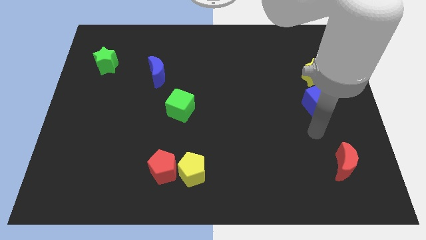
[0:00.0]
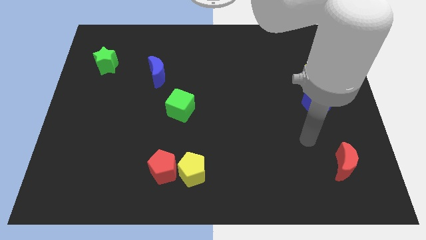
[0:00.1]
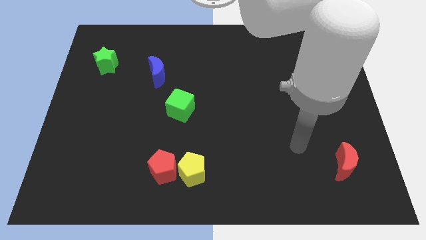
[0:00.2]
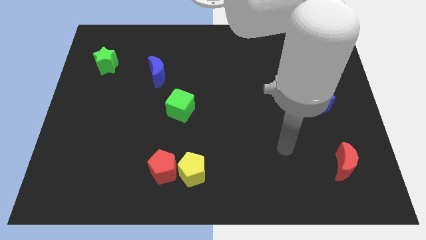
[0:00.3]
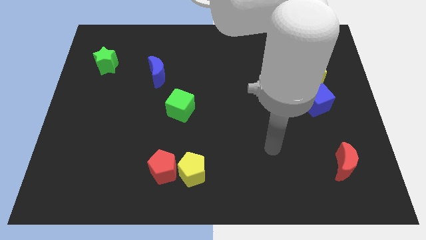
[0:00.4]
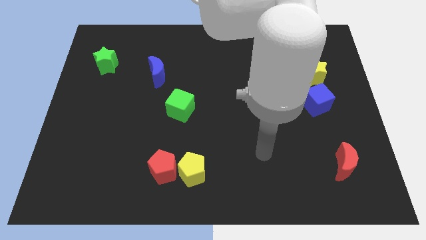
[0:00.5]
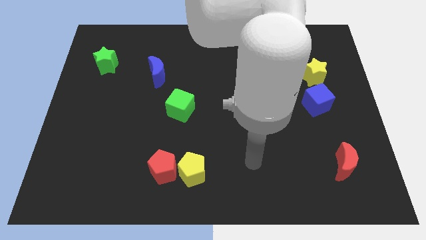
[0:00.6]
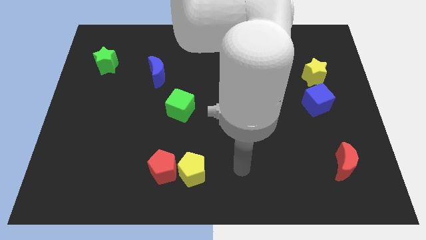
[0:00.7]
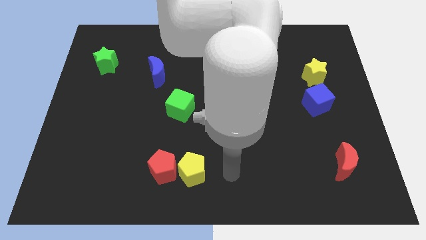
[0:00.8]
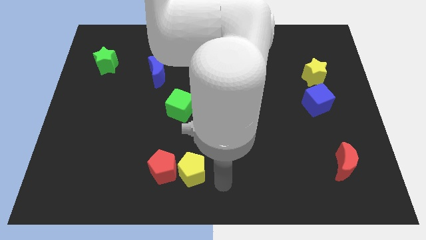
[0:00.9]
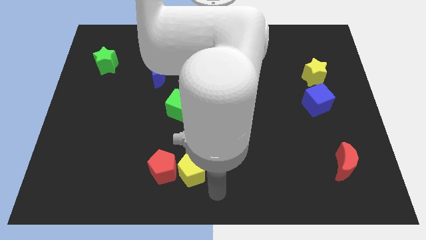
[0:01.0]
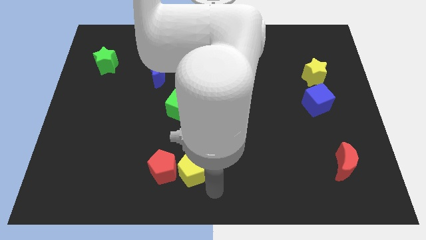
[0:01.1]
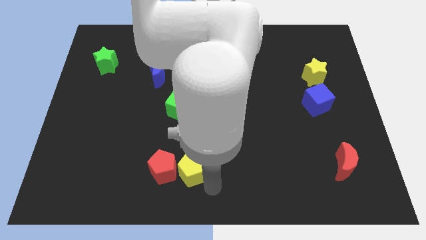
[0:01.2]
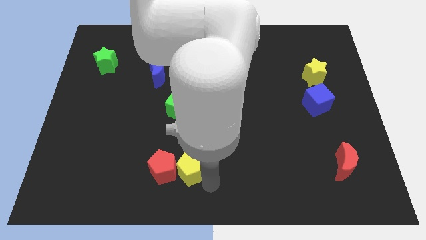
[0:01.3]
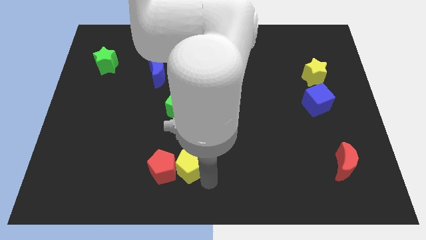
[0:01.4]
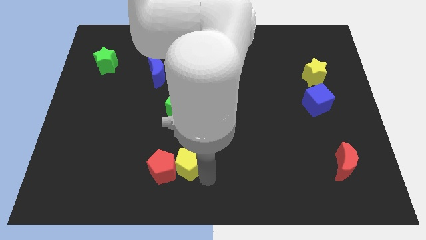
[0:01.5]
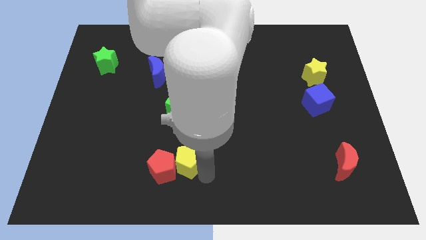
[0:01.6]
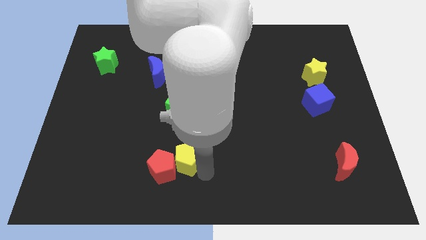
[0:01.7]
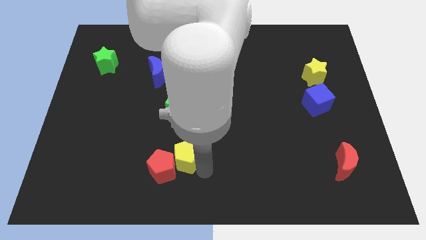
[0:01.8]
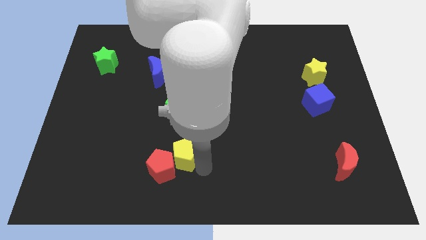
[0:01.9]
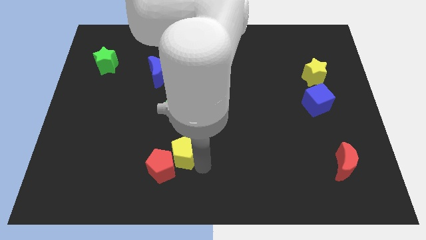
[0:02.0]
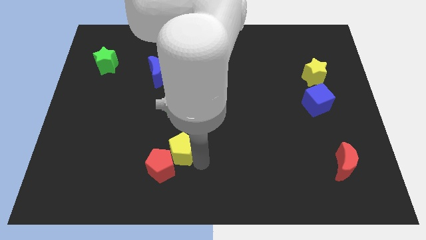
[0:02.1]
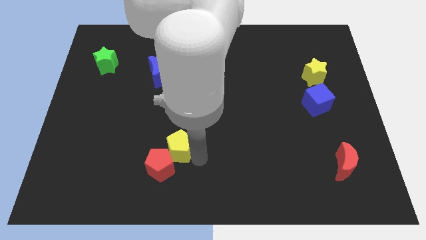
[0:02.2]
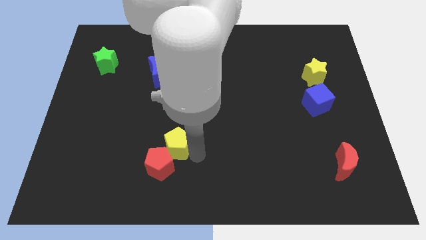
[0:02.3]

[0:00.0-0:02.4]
slightly push the yellow pentagon diagonally up and left

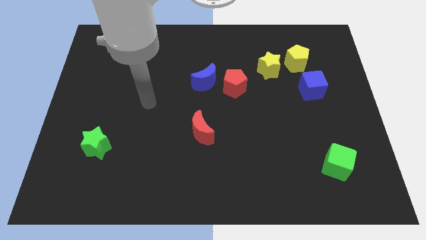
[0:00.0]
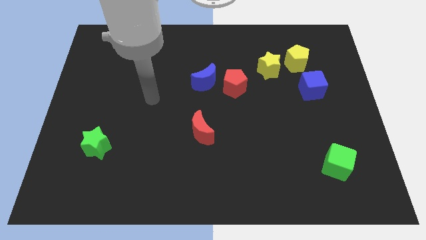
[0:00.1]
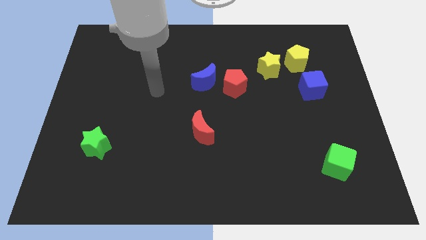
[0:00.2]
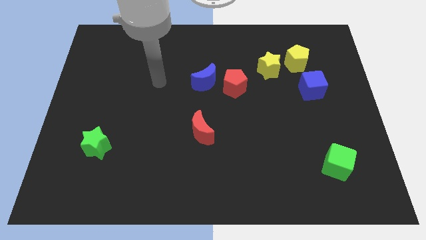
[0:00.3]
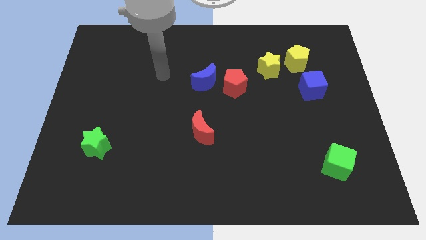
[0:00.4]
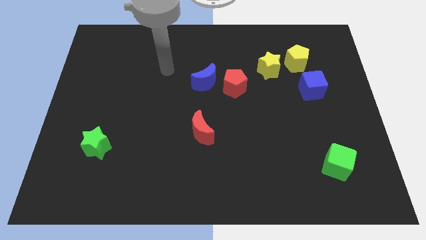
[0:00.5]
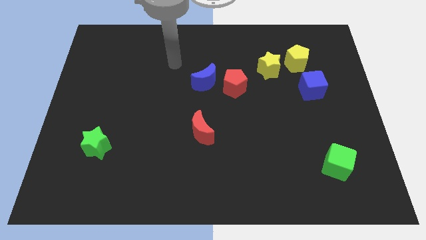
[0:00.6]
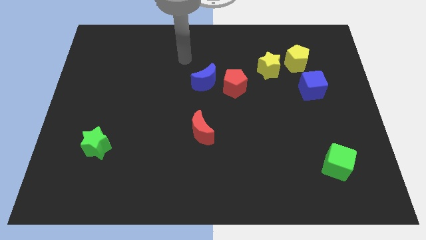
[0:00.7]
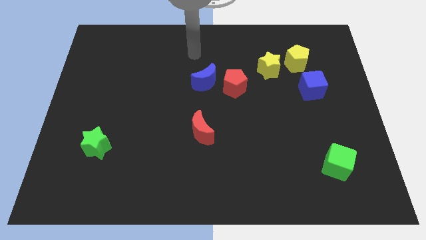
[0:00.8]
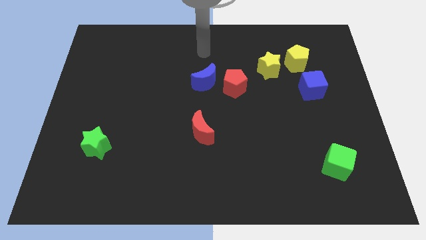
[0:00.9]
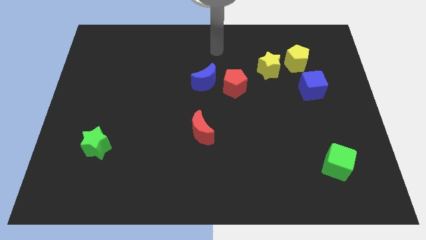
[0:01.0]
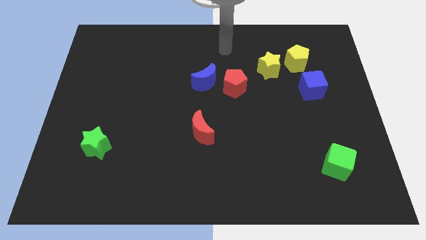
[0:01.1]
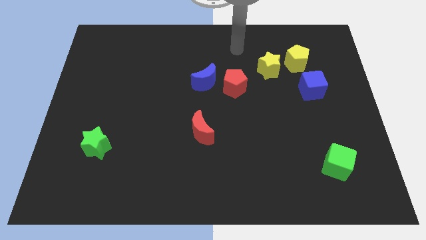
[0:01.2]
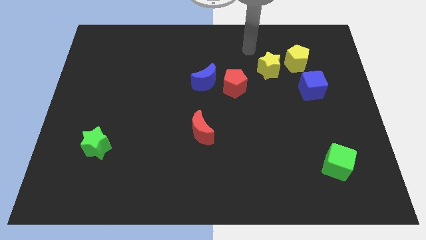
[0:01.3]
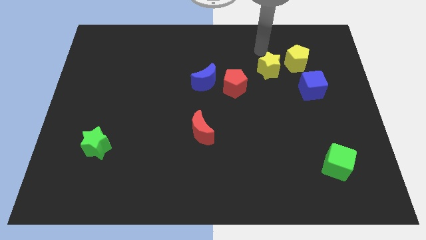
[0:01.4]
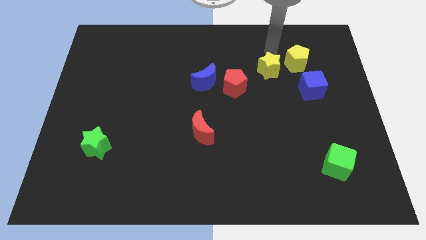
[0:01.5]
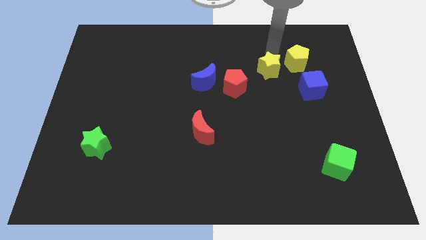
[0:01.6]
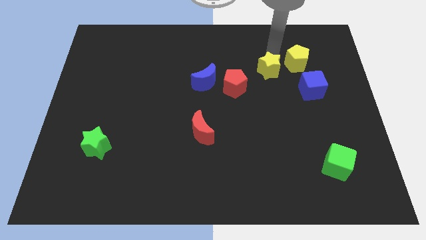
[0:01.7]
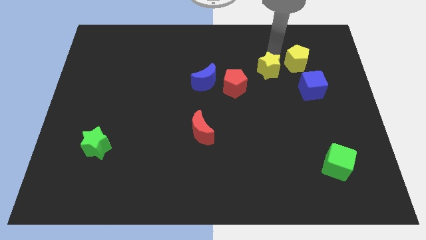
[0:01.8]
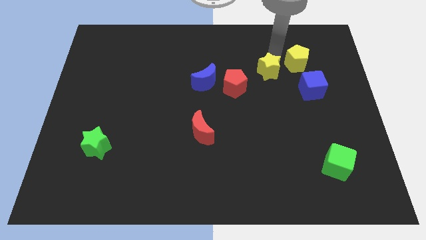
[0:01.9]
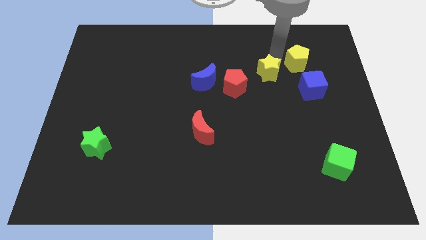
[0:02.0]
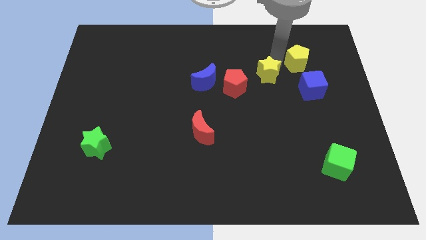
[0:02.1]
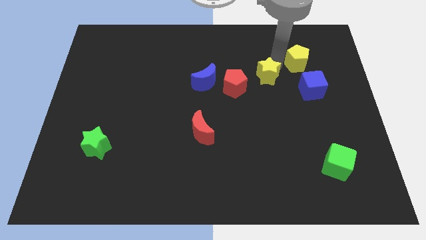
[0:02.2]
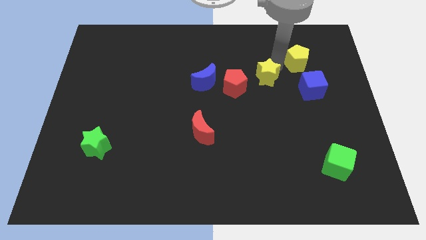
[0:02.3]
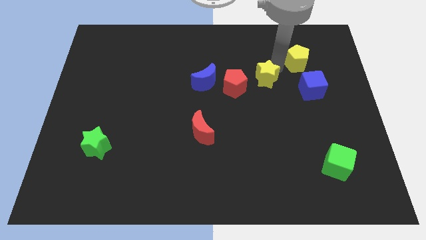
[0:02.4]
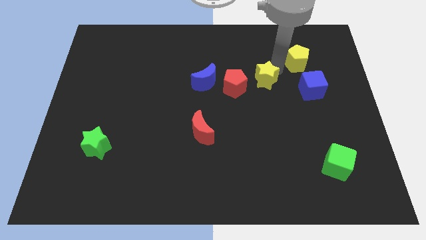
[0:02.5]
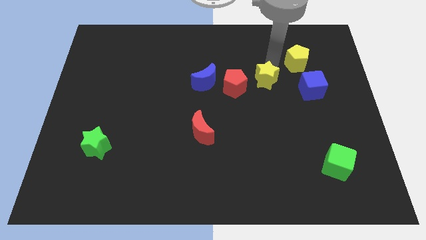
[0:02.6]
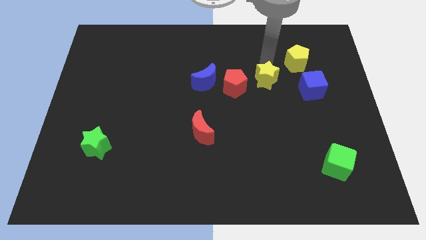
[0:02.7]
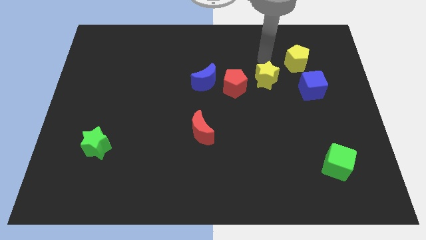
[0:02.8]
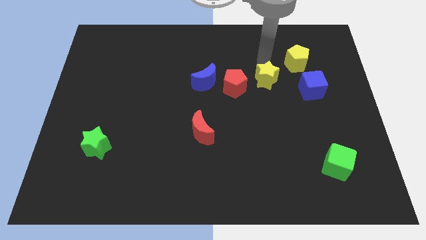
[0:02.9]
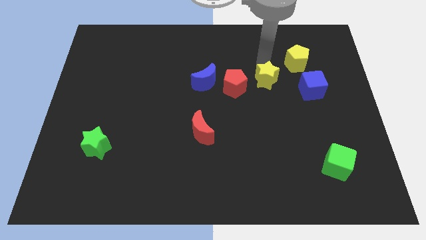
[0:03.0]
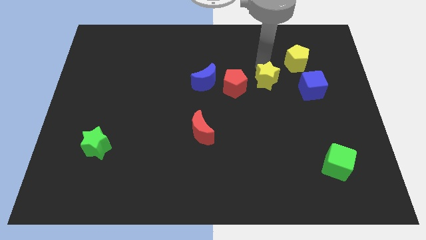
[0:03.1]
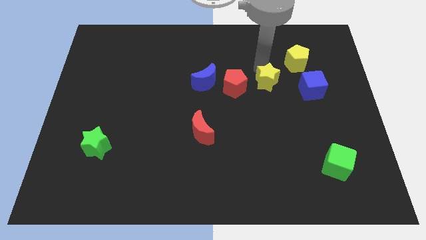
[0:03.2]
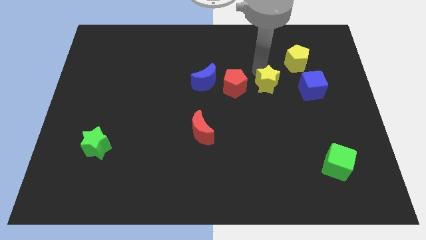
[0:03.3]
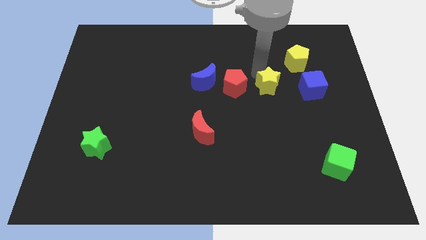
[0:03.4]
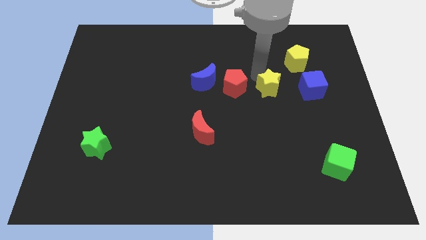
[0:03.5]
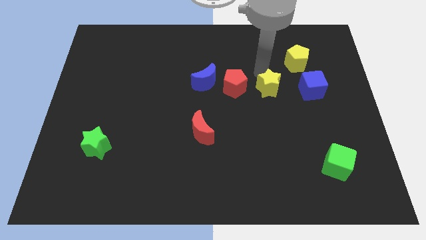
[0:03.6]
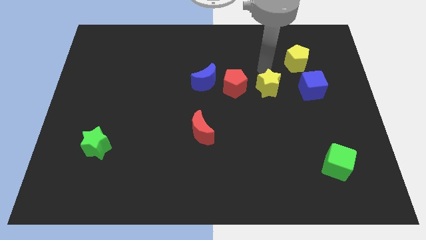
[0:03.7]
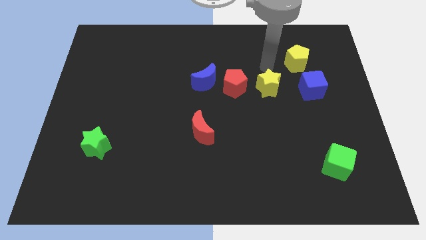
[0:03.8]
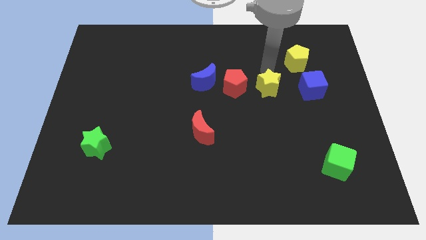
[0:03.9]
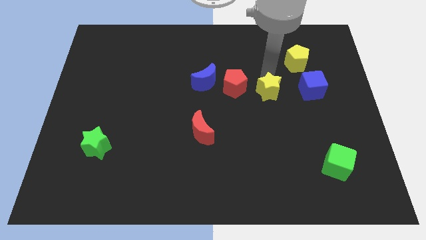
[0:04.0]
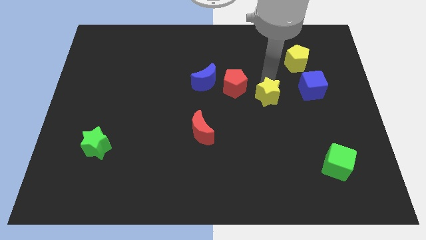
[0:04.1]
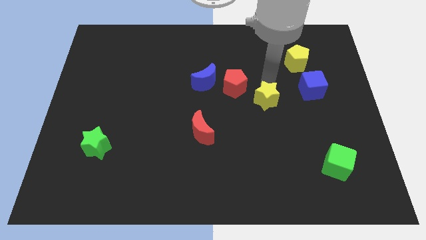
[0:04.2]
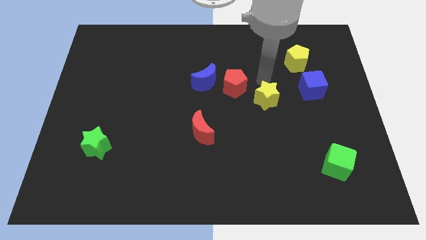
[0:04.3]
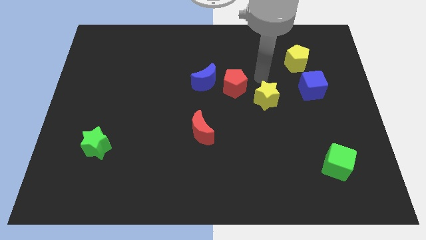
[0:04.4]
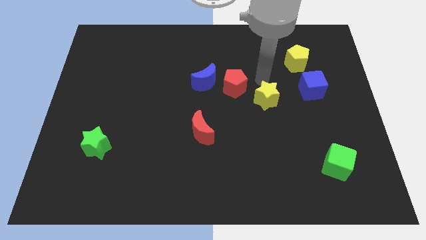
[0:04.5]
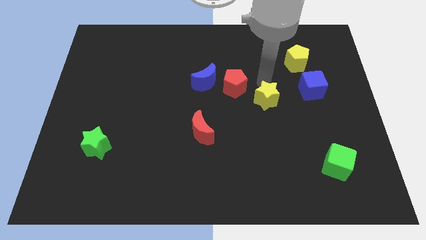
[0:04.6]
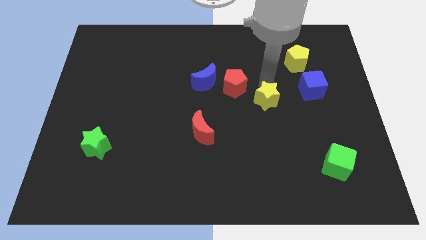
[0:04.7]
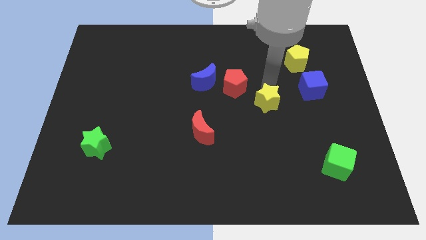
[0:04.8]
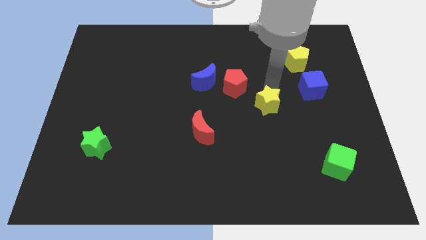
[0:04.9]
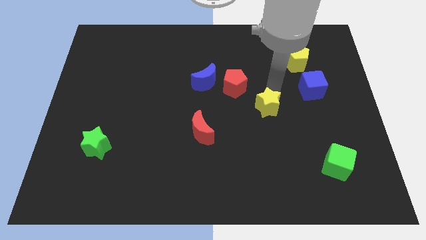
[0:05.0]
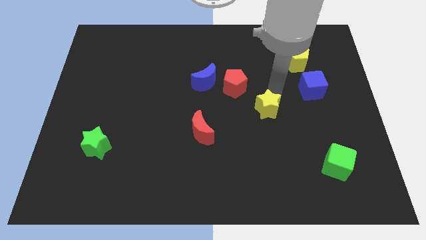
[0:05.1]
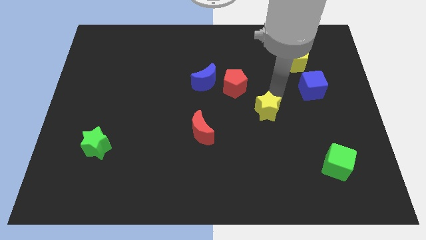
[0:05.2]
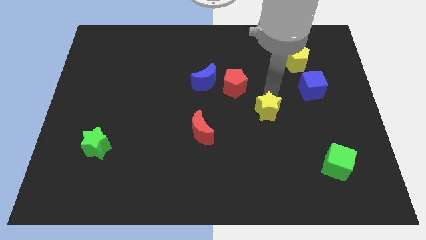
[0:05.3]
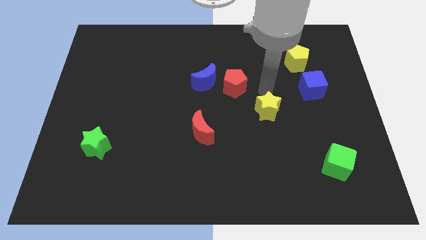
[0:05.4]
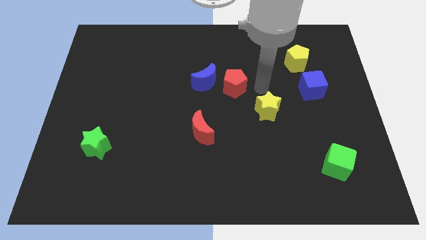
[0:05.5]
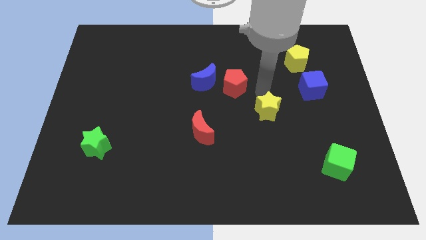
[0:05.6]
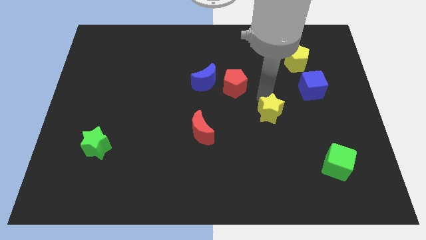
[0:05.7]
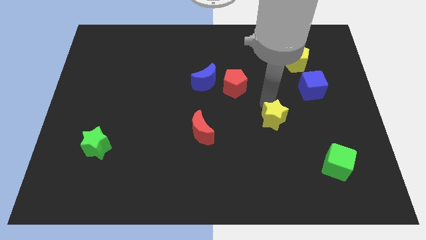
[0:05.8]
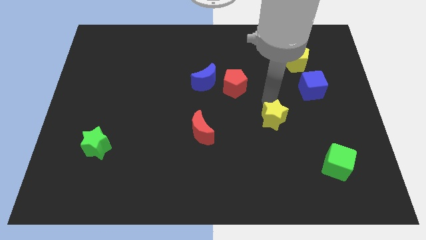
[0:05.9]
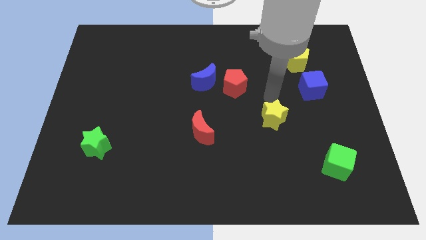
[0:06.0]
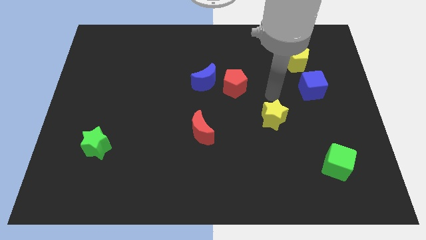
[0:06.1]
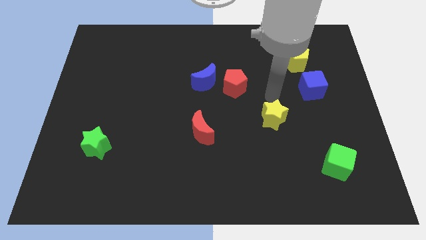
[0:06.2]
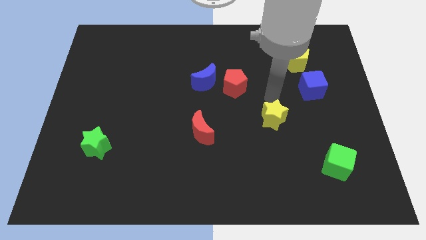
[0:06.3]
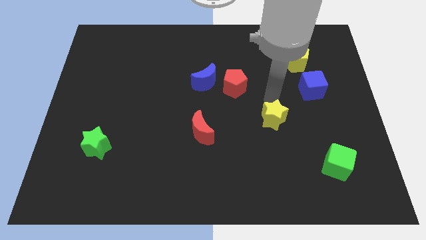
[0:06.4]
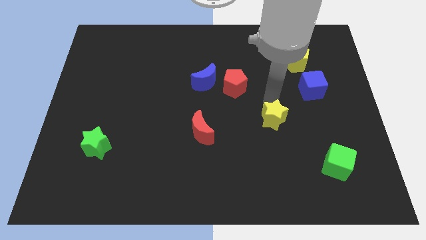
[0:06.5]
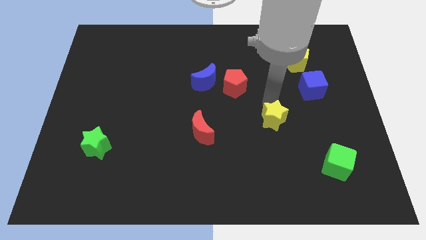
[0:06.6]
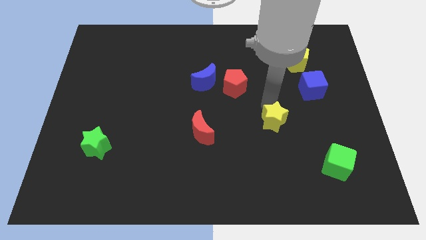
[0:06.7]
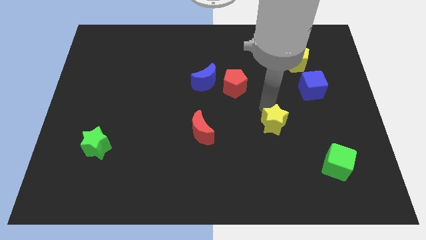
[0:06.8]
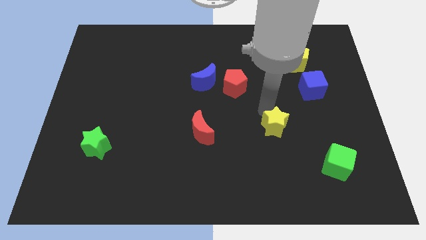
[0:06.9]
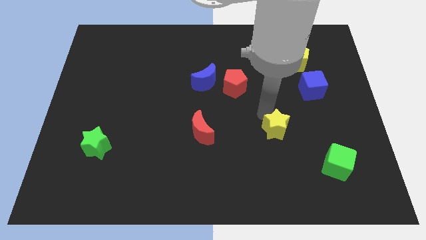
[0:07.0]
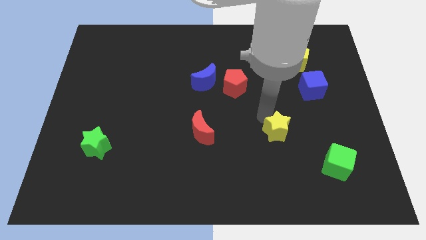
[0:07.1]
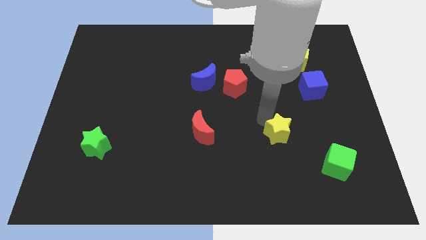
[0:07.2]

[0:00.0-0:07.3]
slide the yellow star downwards
